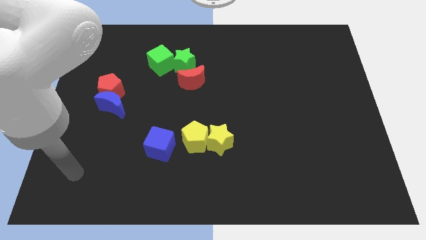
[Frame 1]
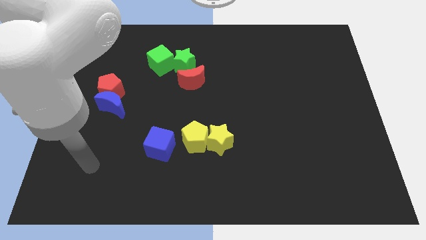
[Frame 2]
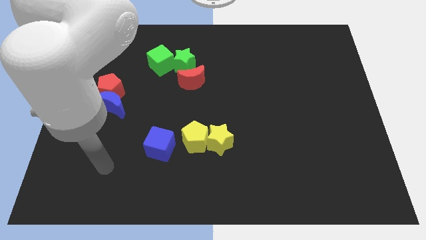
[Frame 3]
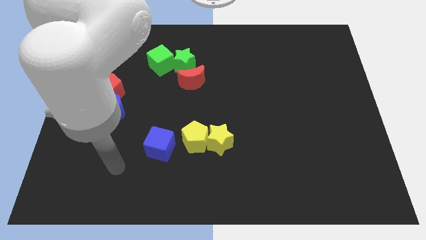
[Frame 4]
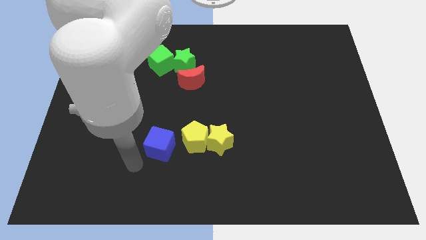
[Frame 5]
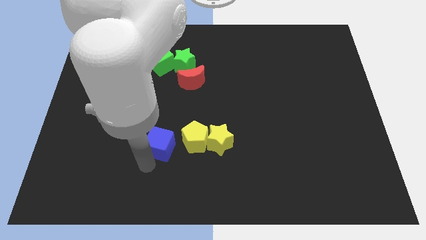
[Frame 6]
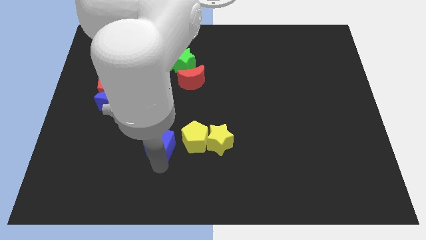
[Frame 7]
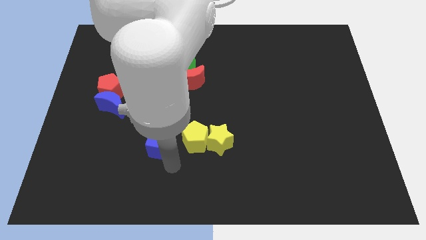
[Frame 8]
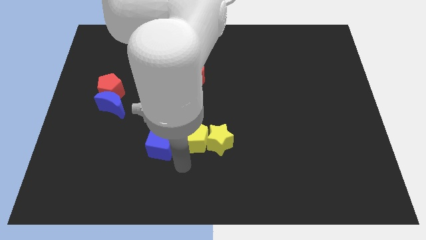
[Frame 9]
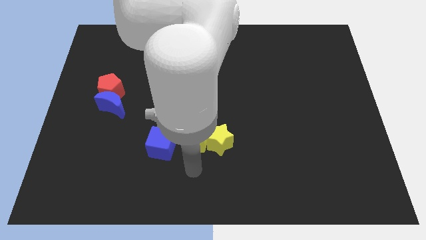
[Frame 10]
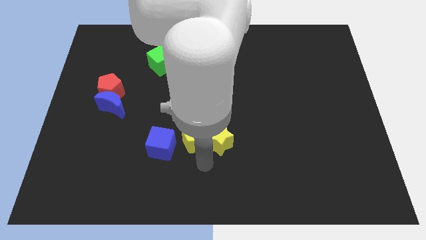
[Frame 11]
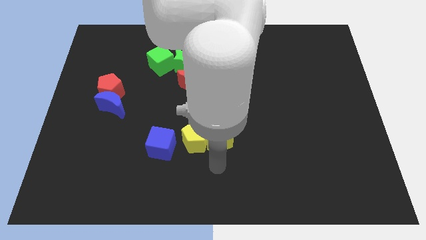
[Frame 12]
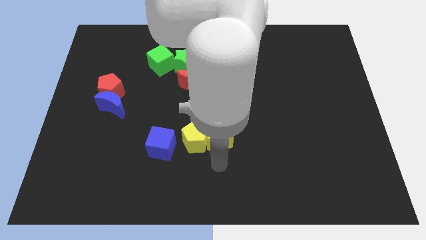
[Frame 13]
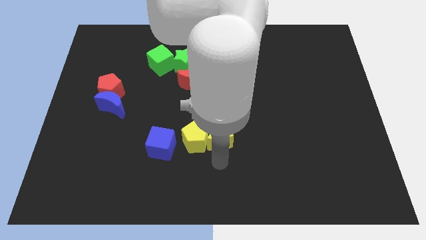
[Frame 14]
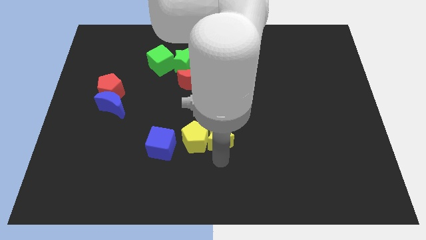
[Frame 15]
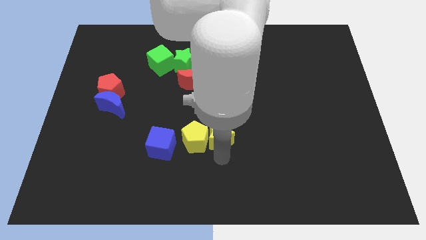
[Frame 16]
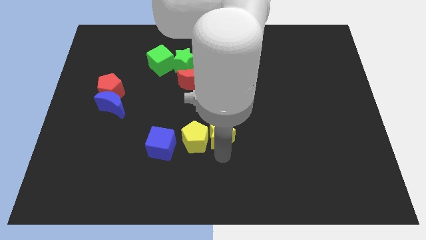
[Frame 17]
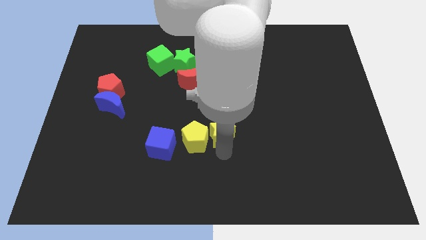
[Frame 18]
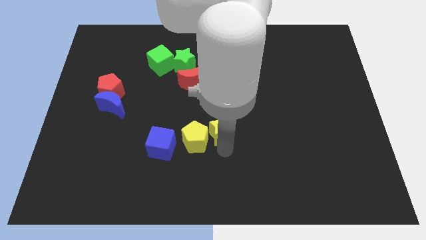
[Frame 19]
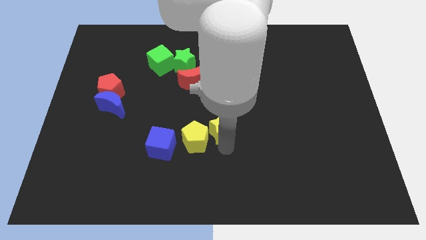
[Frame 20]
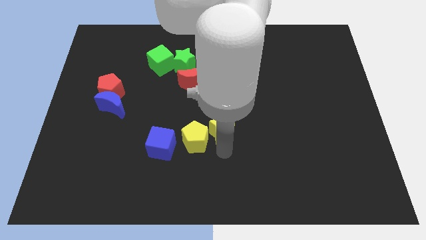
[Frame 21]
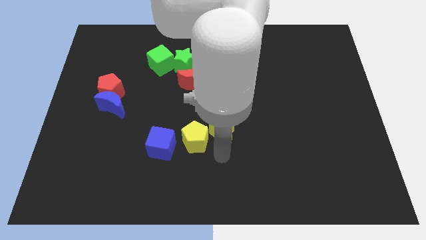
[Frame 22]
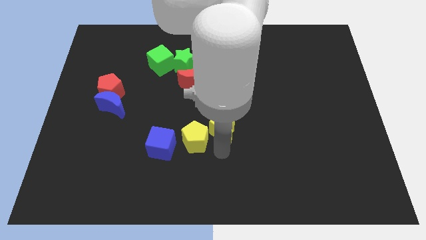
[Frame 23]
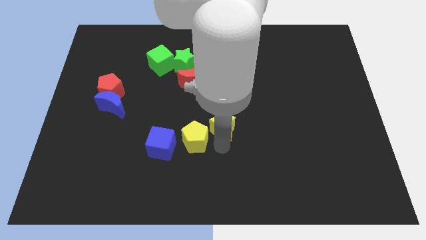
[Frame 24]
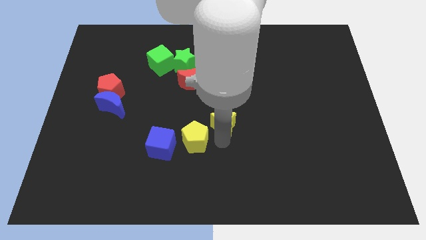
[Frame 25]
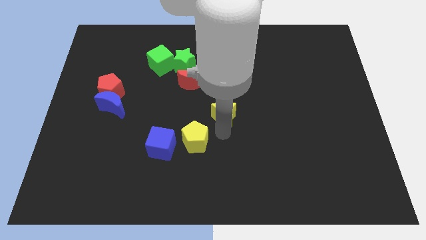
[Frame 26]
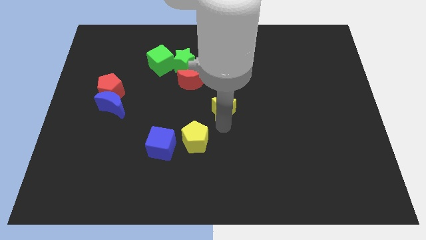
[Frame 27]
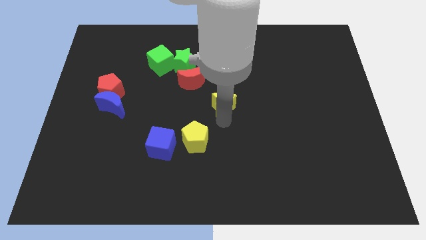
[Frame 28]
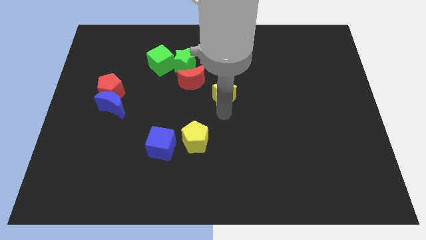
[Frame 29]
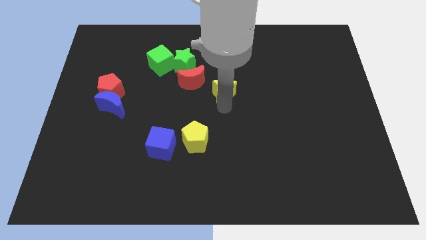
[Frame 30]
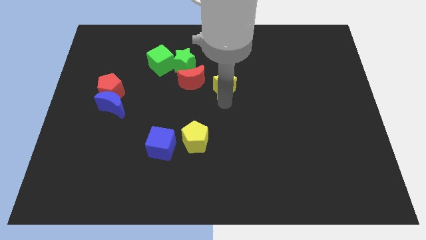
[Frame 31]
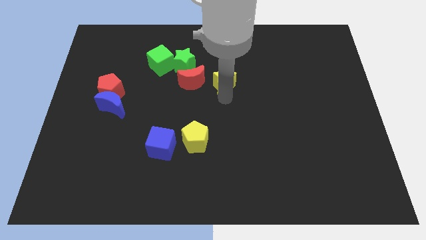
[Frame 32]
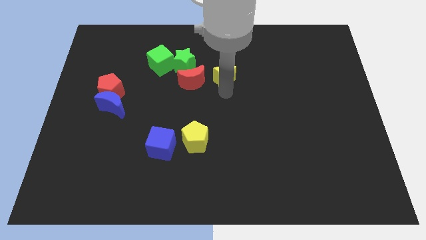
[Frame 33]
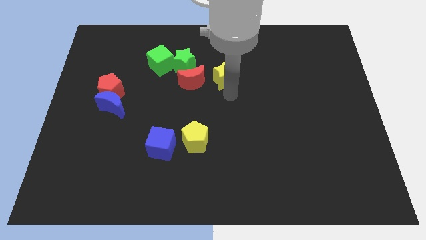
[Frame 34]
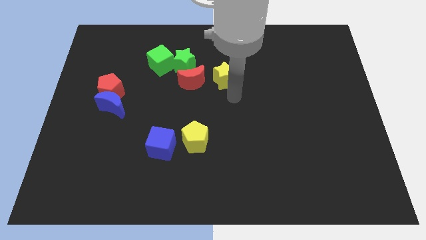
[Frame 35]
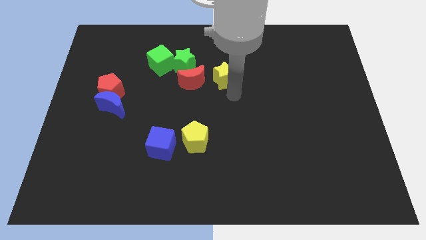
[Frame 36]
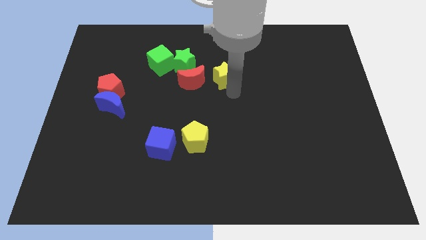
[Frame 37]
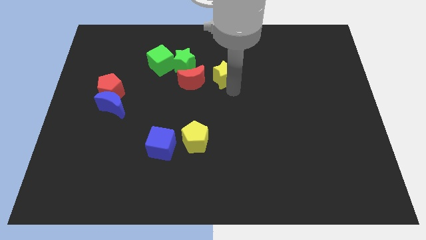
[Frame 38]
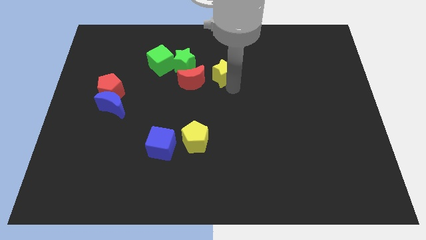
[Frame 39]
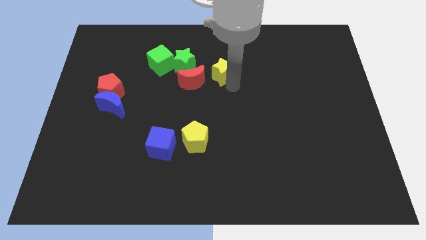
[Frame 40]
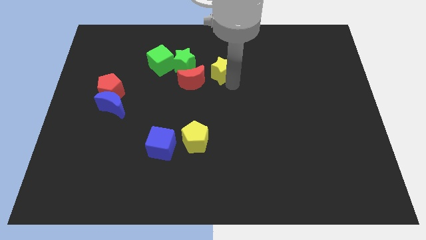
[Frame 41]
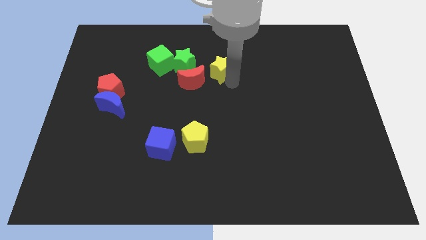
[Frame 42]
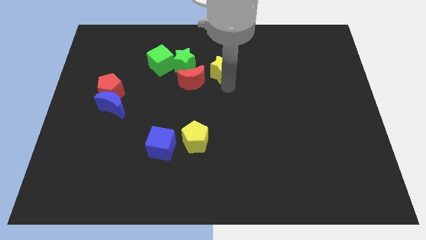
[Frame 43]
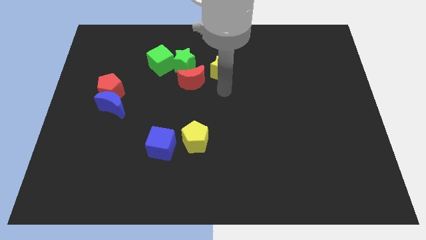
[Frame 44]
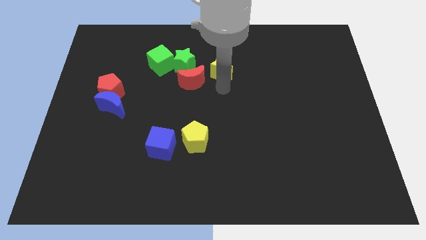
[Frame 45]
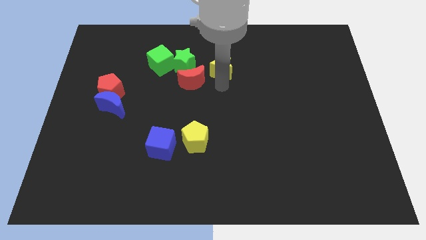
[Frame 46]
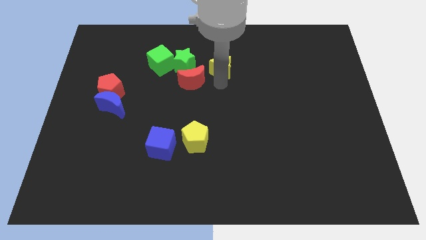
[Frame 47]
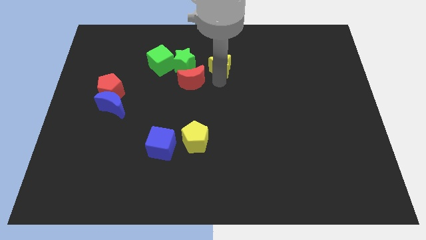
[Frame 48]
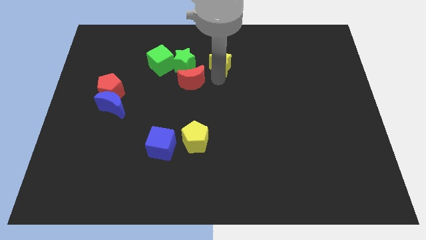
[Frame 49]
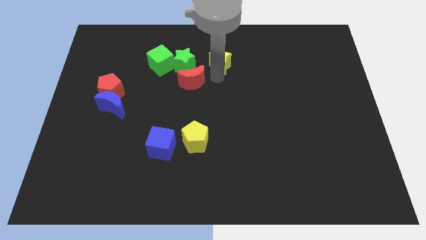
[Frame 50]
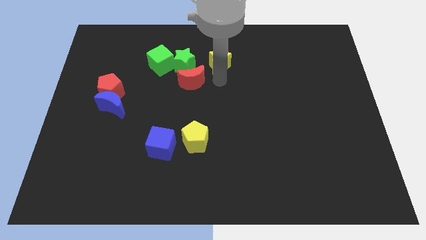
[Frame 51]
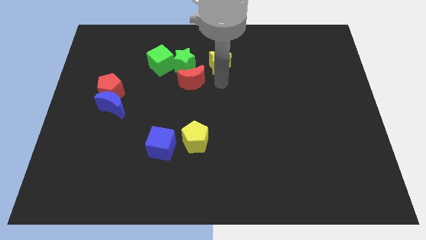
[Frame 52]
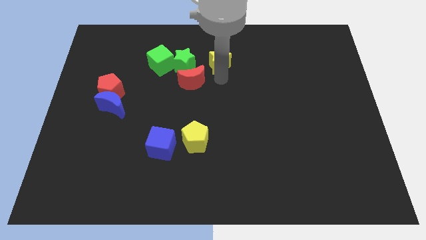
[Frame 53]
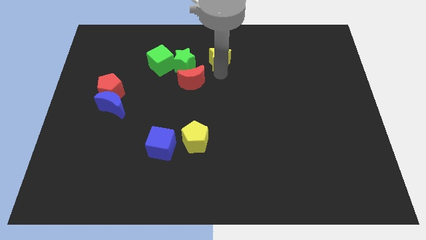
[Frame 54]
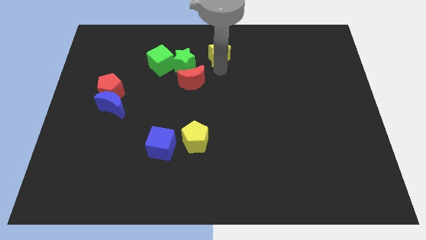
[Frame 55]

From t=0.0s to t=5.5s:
slide the yellow star to the top side

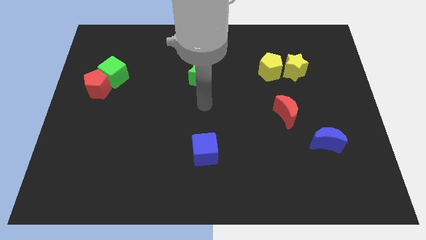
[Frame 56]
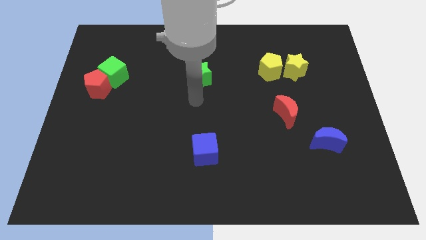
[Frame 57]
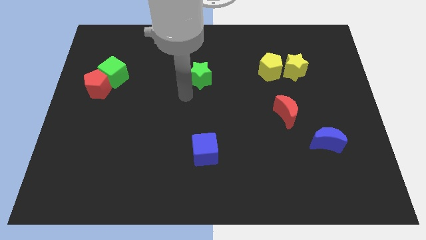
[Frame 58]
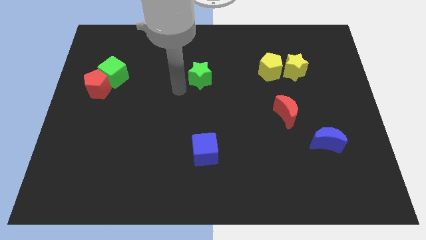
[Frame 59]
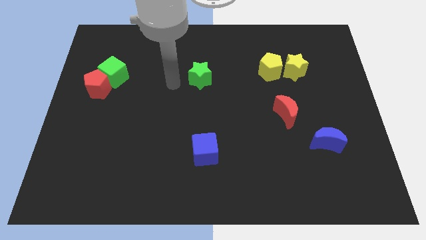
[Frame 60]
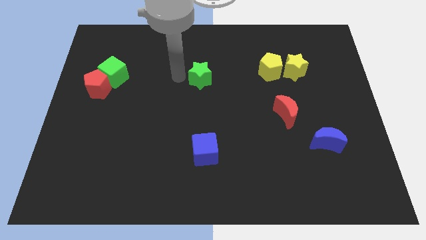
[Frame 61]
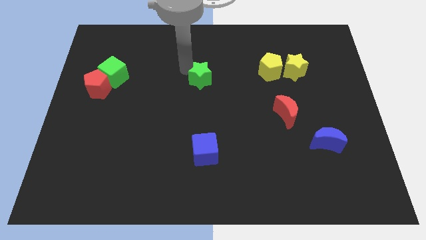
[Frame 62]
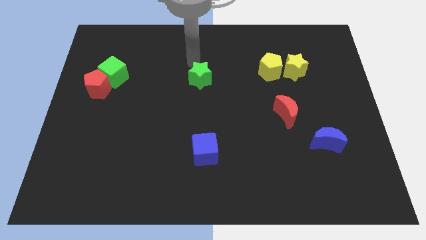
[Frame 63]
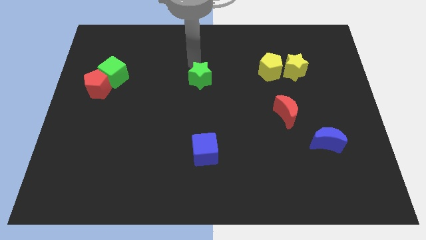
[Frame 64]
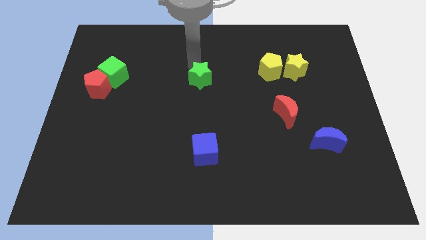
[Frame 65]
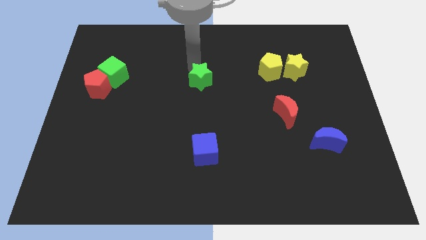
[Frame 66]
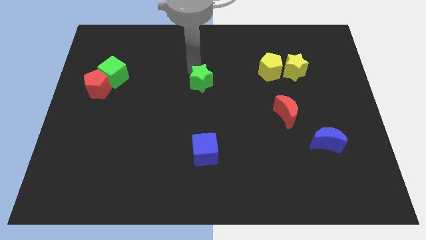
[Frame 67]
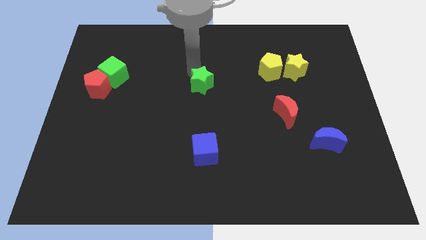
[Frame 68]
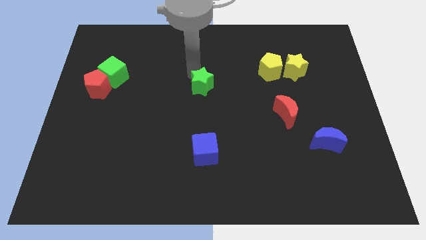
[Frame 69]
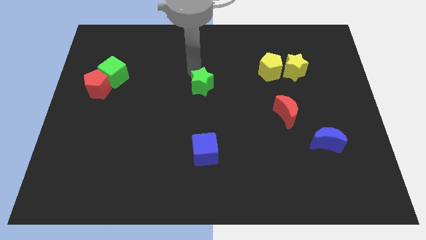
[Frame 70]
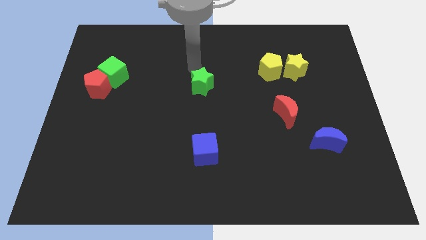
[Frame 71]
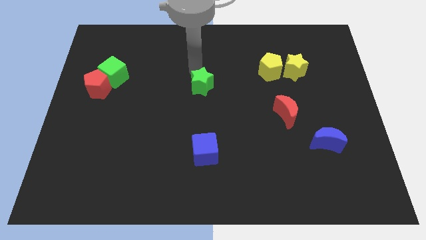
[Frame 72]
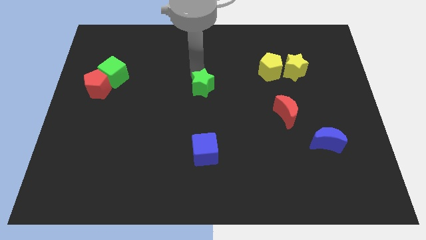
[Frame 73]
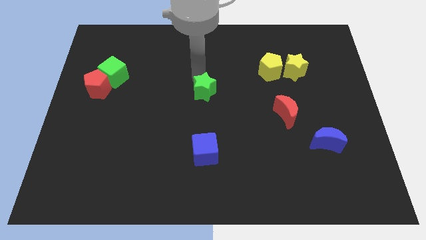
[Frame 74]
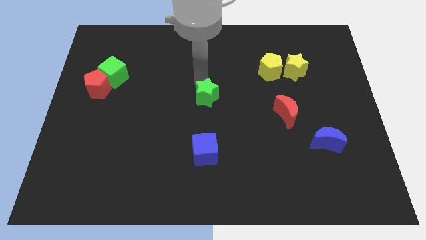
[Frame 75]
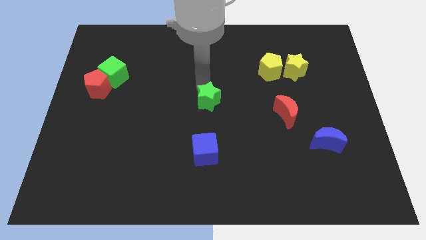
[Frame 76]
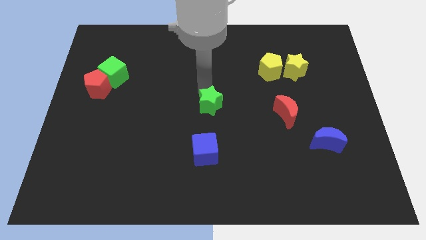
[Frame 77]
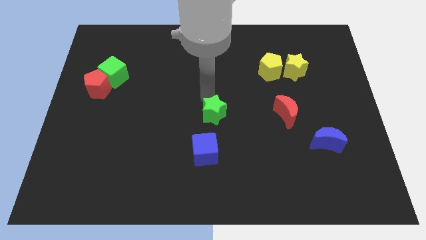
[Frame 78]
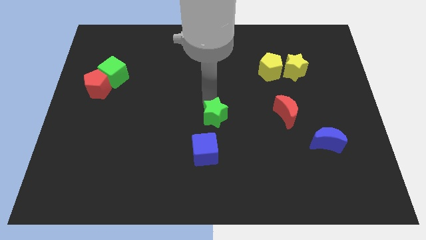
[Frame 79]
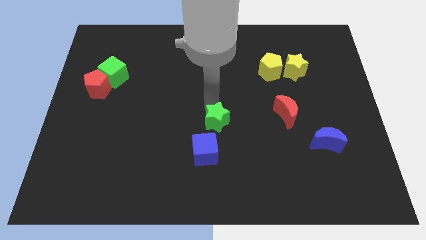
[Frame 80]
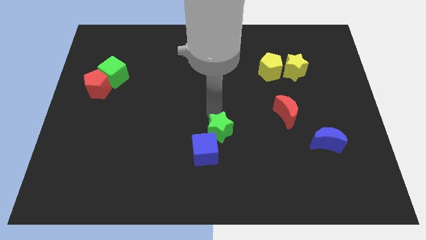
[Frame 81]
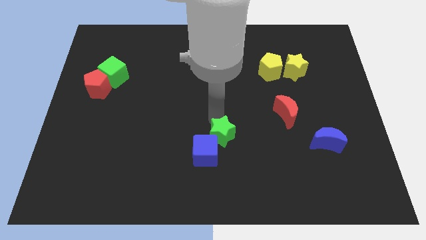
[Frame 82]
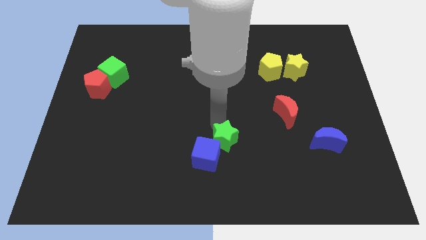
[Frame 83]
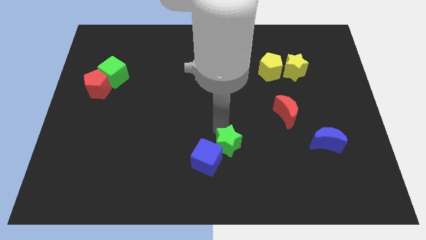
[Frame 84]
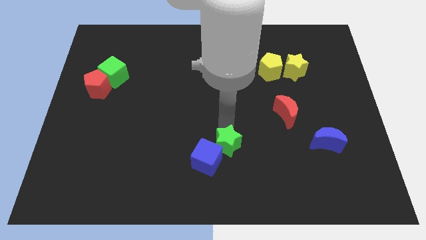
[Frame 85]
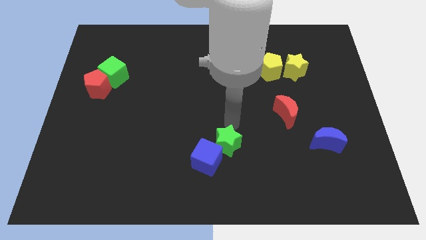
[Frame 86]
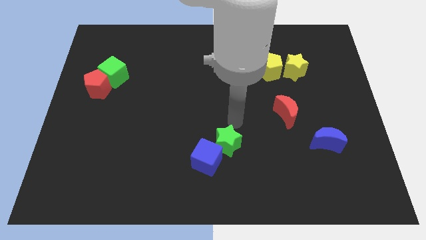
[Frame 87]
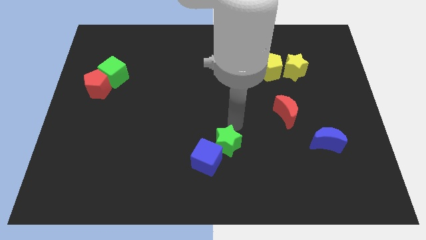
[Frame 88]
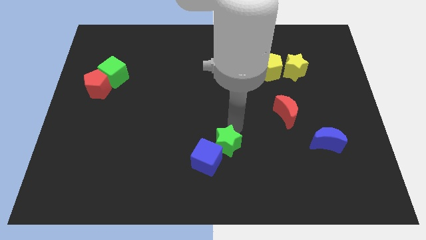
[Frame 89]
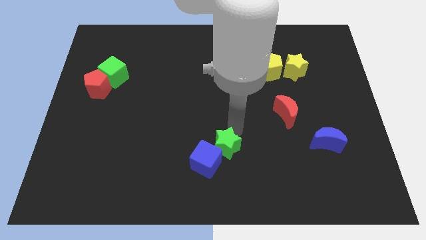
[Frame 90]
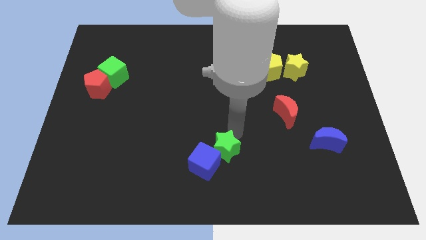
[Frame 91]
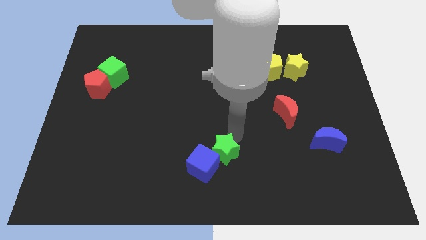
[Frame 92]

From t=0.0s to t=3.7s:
slide the green star to the bottom side
